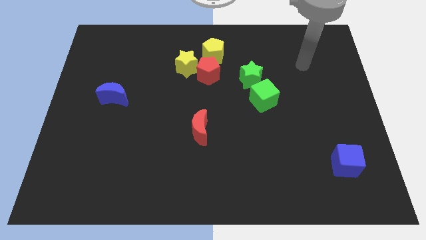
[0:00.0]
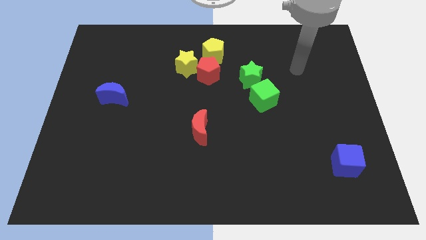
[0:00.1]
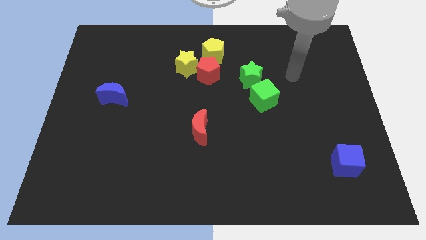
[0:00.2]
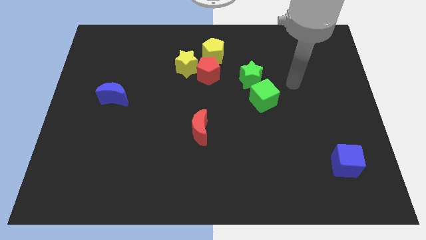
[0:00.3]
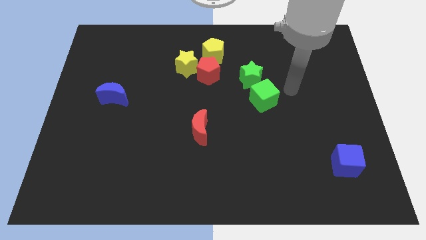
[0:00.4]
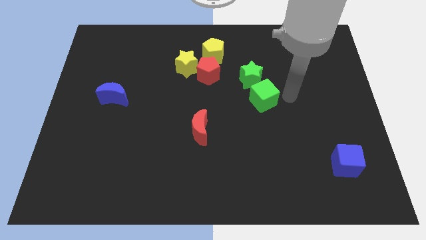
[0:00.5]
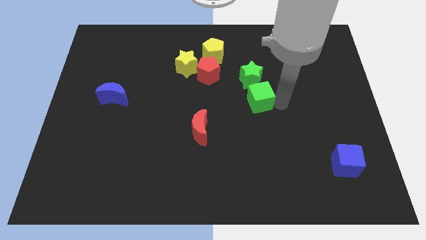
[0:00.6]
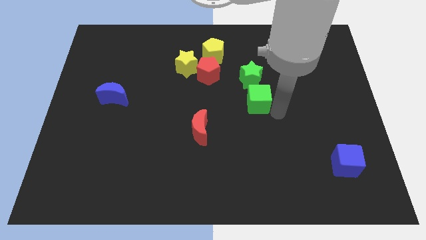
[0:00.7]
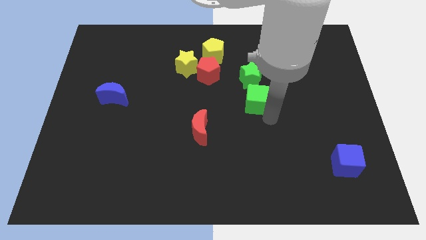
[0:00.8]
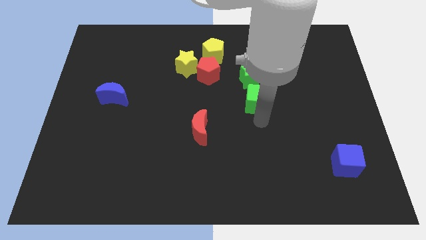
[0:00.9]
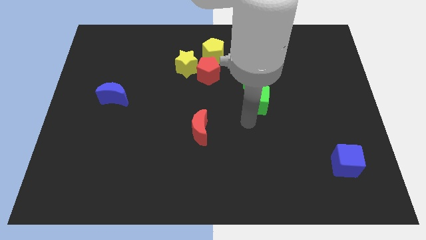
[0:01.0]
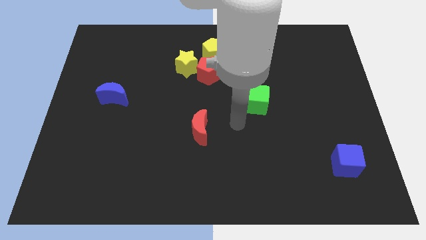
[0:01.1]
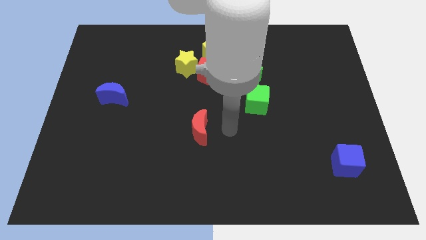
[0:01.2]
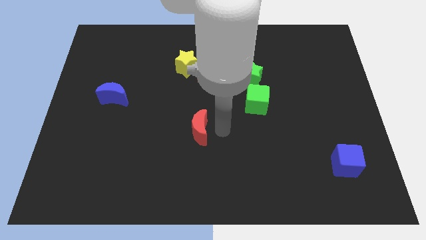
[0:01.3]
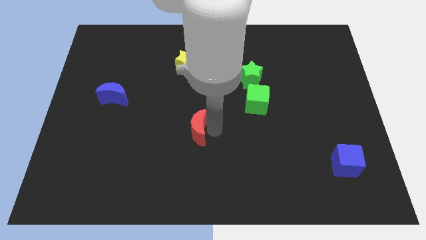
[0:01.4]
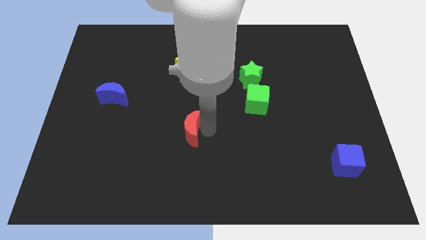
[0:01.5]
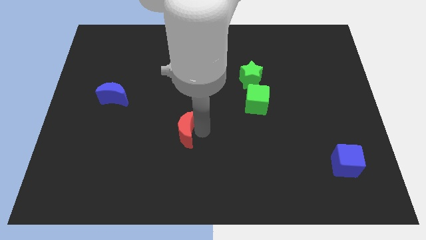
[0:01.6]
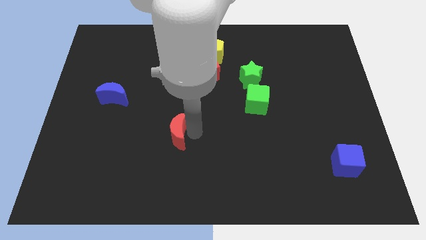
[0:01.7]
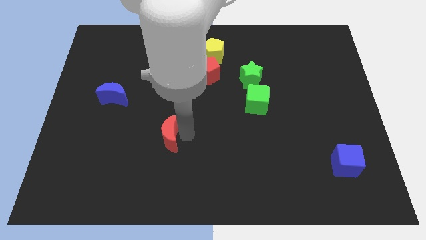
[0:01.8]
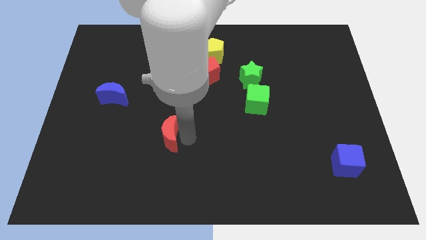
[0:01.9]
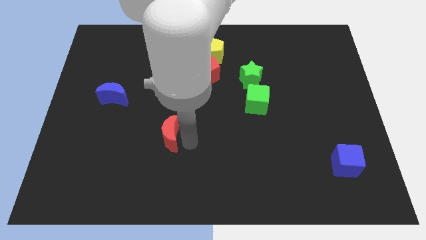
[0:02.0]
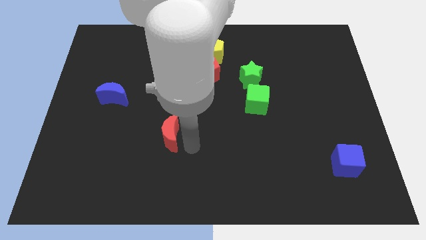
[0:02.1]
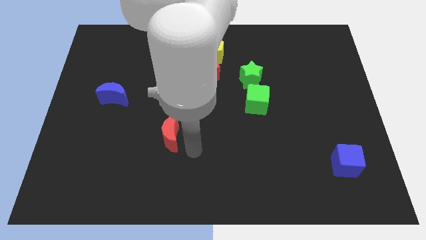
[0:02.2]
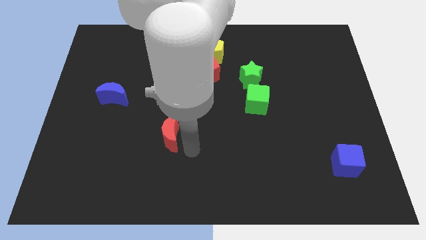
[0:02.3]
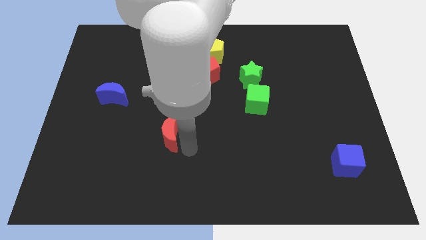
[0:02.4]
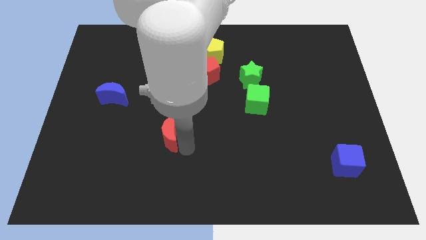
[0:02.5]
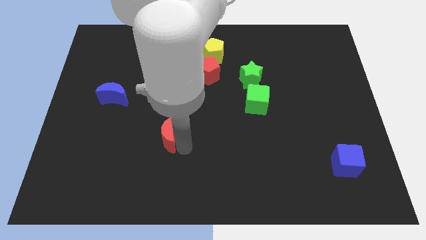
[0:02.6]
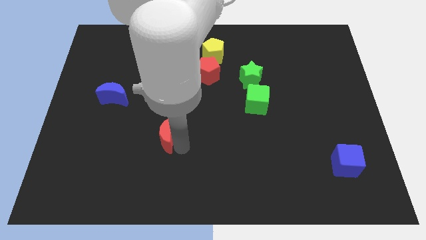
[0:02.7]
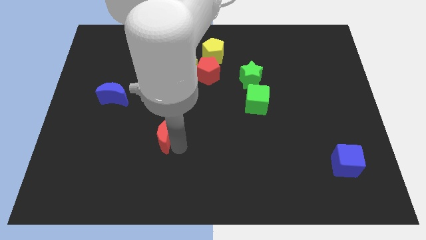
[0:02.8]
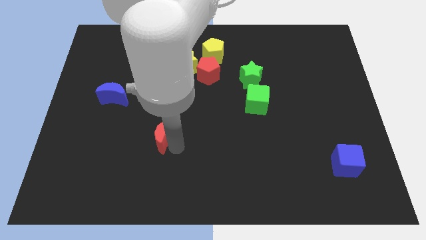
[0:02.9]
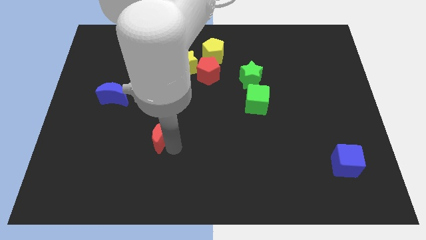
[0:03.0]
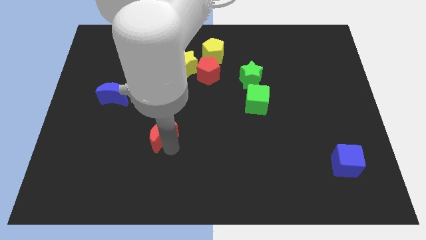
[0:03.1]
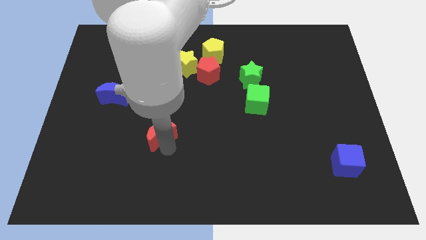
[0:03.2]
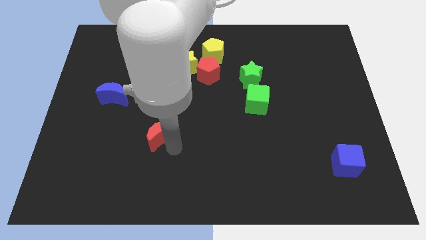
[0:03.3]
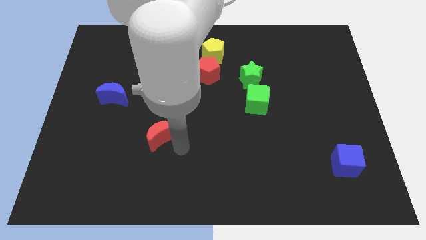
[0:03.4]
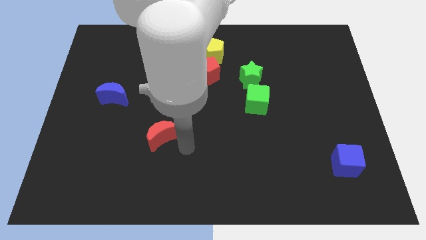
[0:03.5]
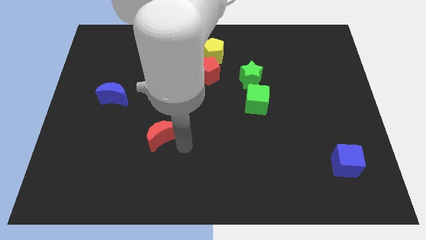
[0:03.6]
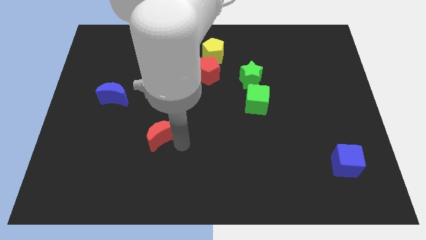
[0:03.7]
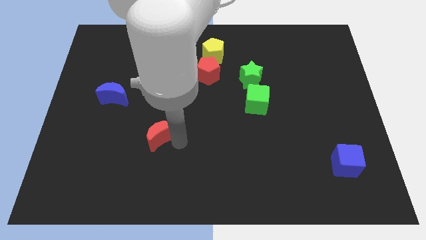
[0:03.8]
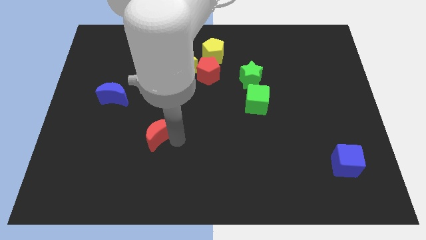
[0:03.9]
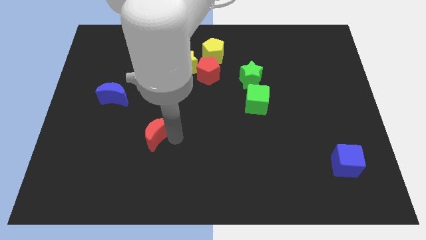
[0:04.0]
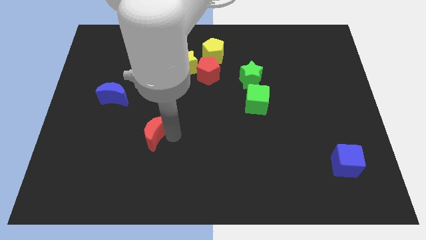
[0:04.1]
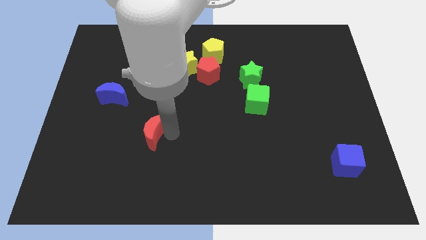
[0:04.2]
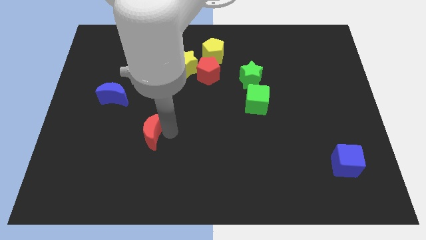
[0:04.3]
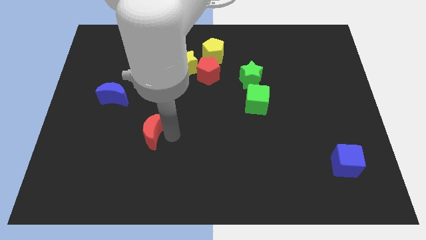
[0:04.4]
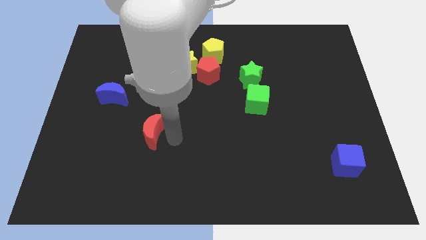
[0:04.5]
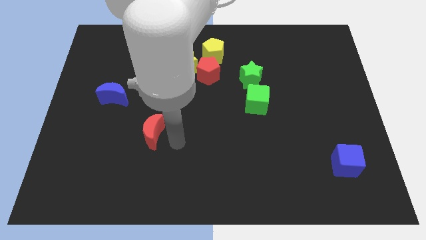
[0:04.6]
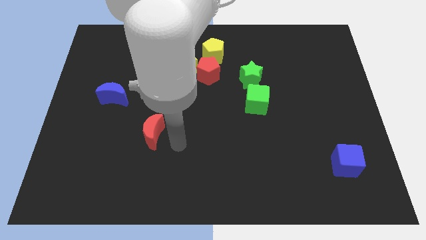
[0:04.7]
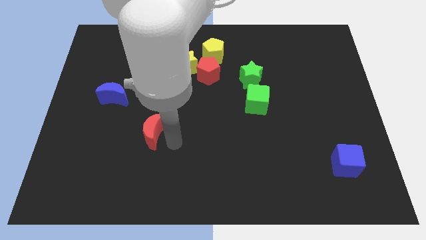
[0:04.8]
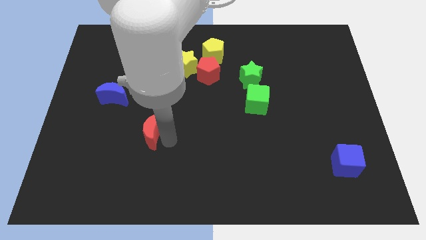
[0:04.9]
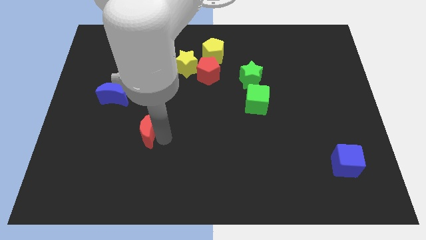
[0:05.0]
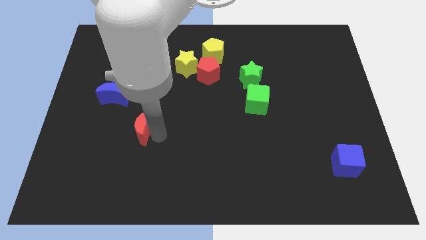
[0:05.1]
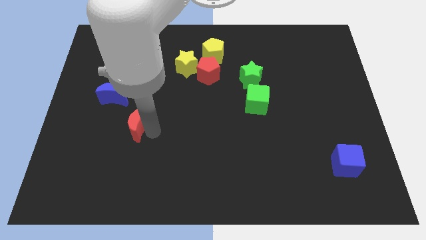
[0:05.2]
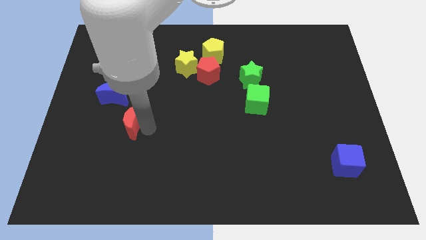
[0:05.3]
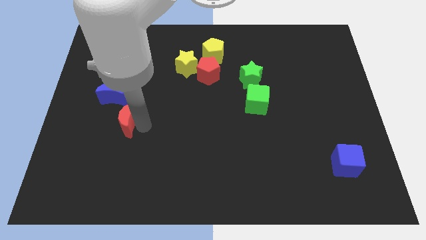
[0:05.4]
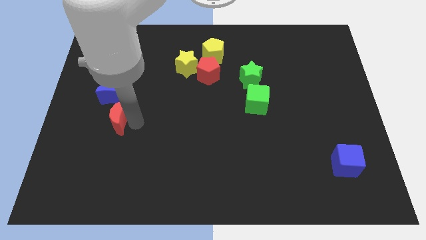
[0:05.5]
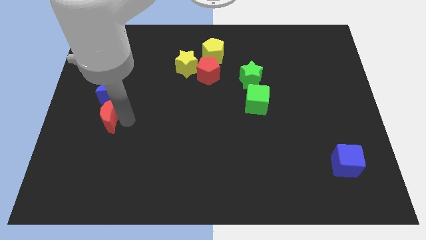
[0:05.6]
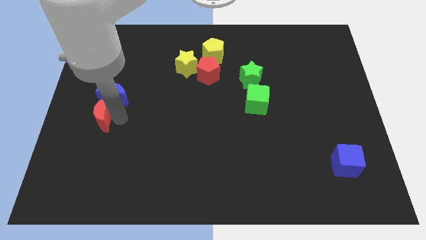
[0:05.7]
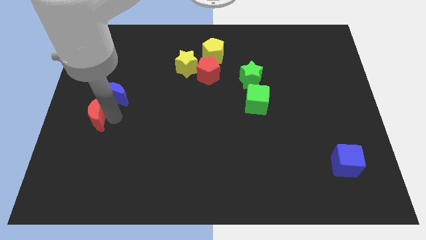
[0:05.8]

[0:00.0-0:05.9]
slide the red moon to the center left
